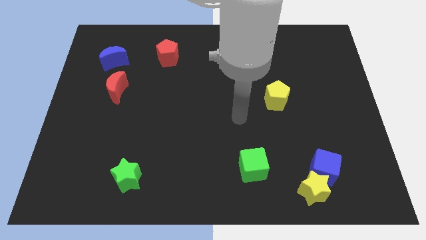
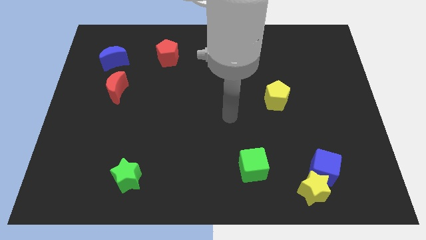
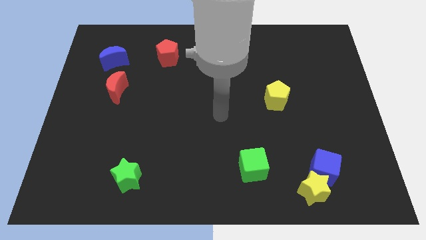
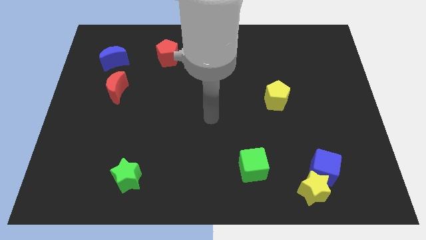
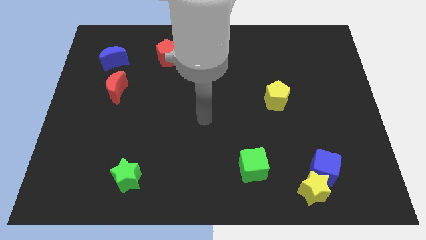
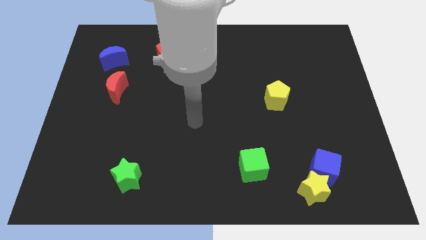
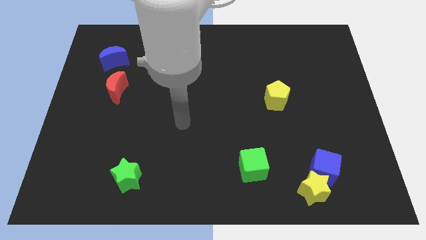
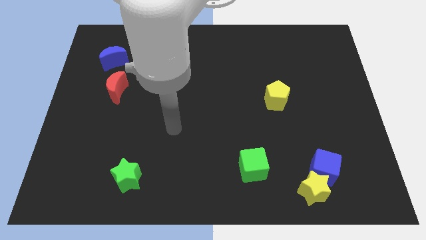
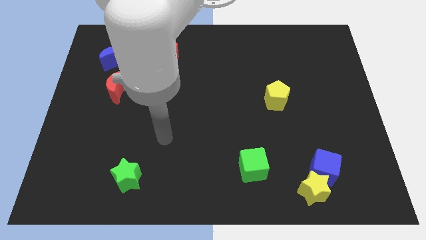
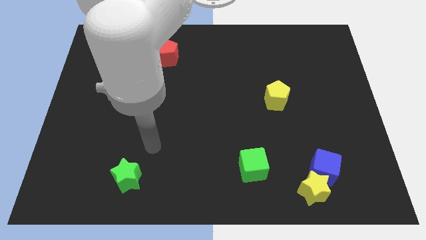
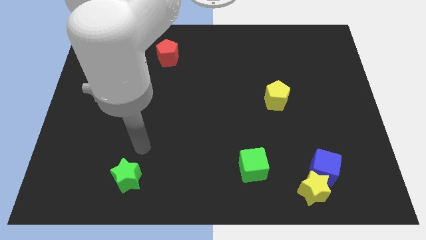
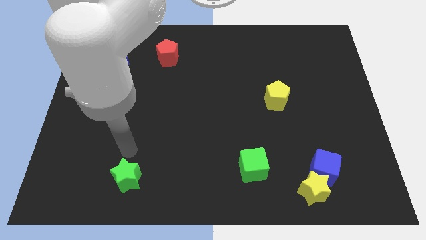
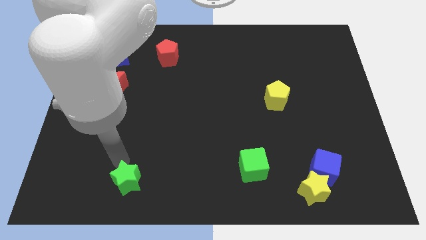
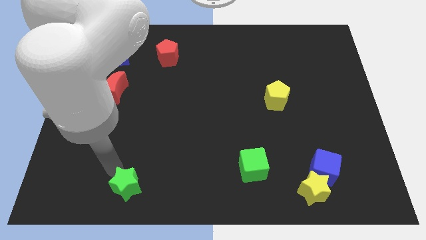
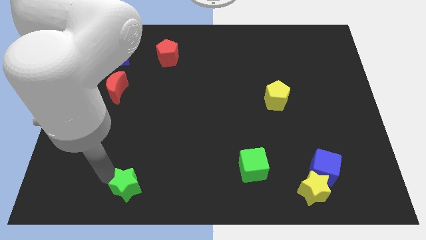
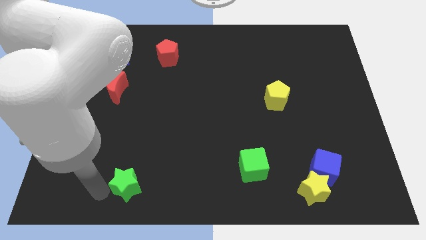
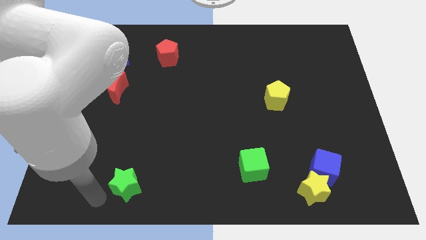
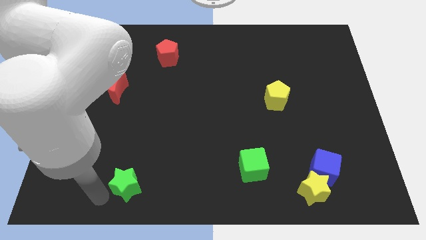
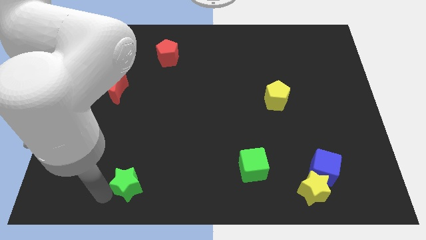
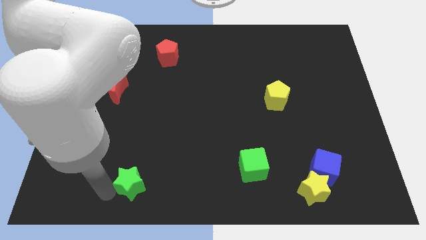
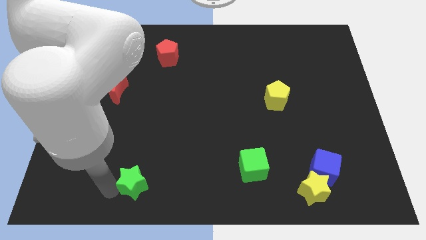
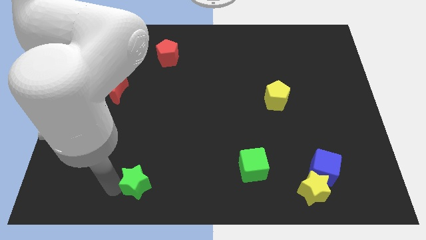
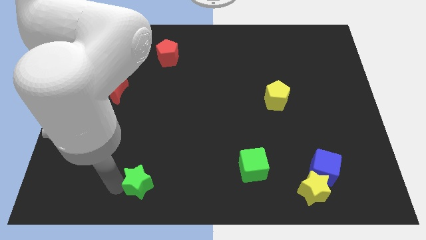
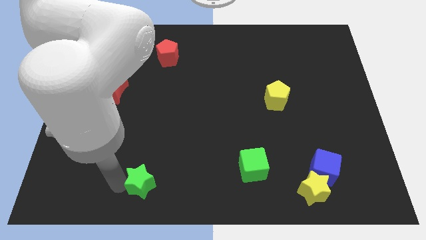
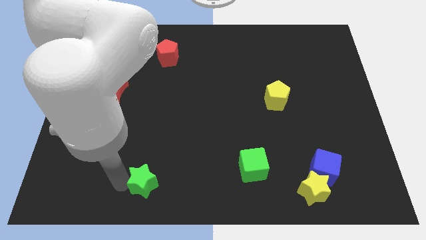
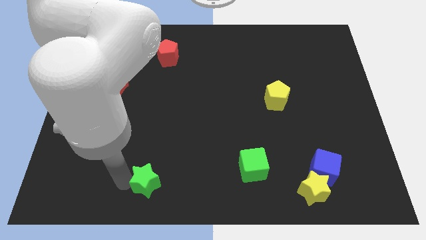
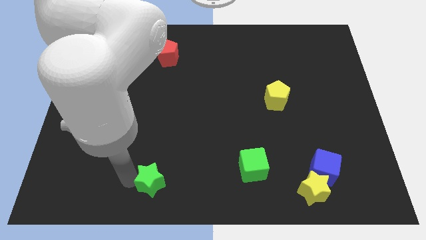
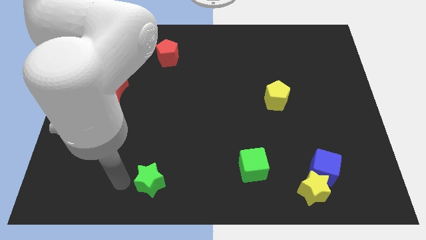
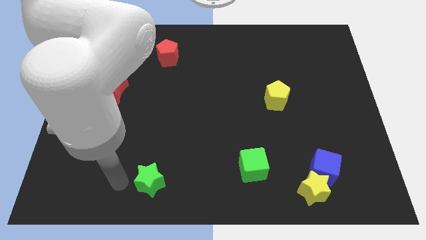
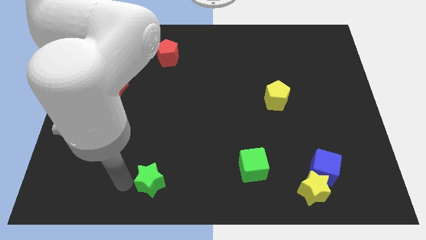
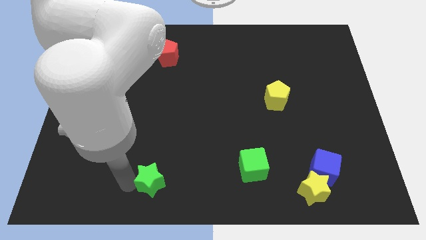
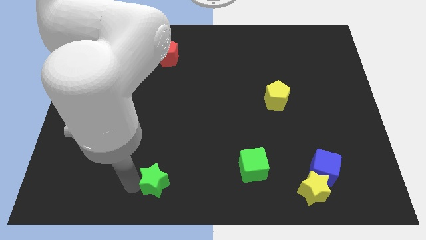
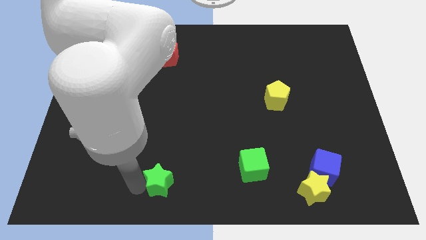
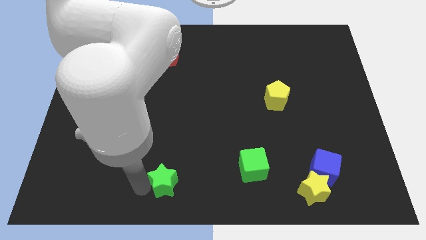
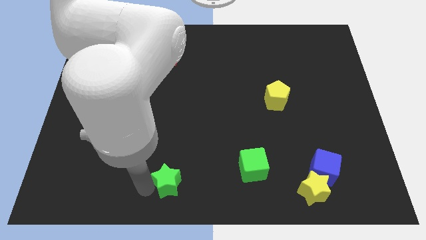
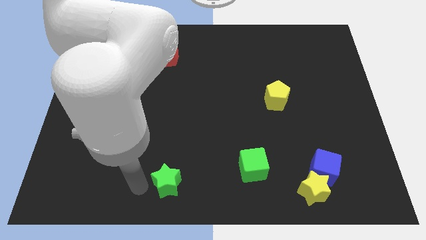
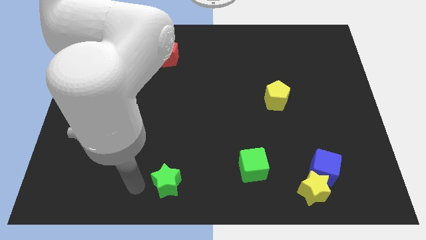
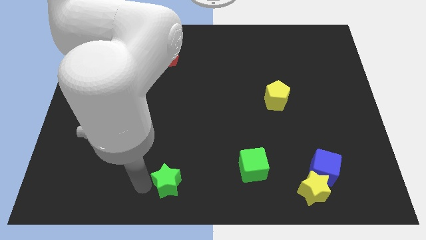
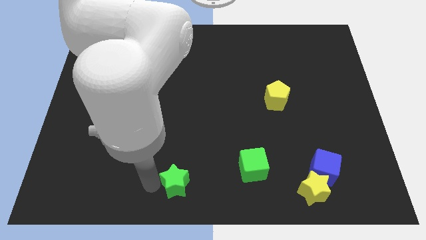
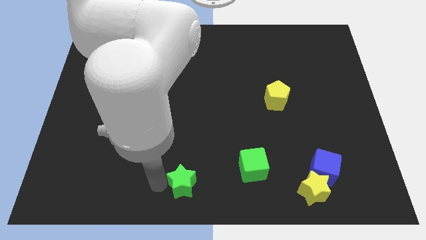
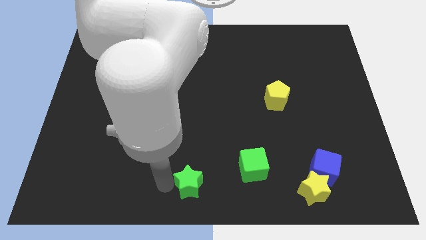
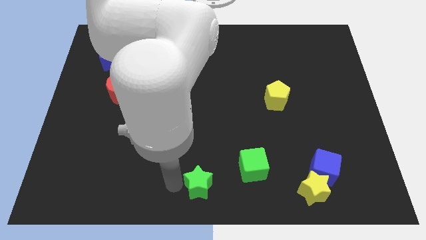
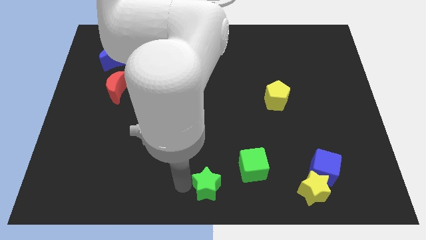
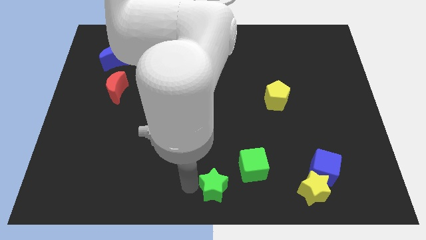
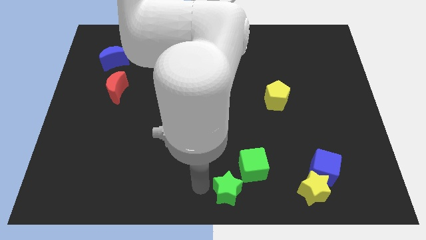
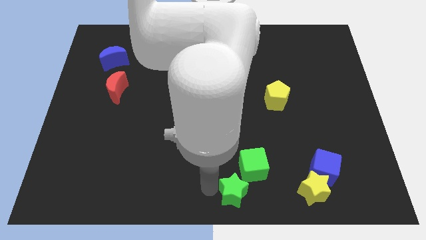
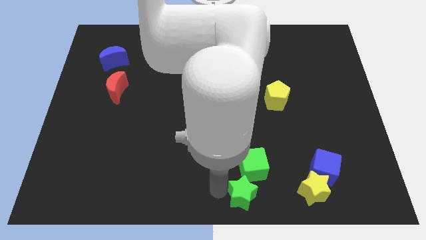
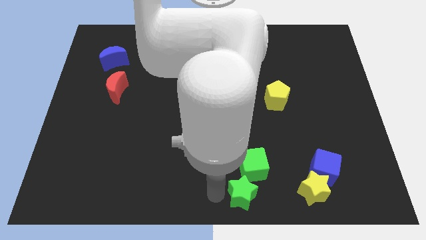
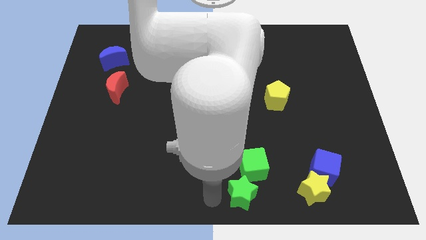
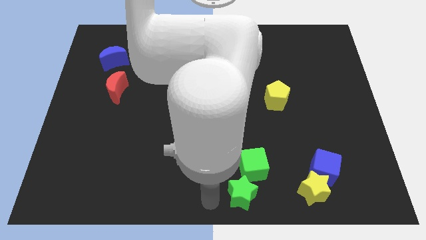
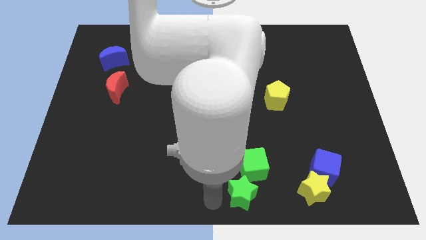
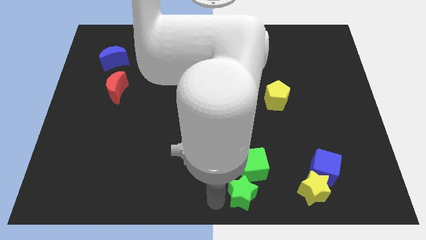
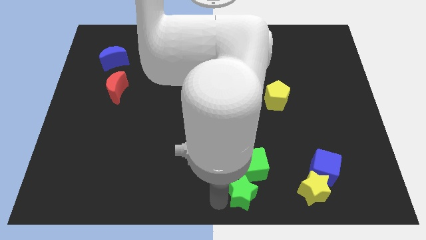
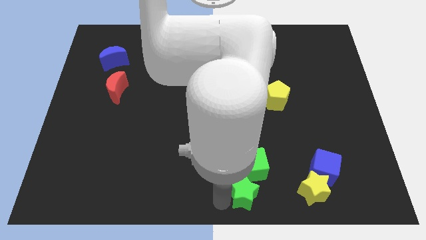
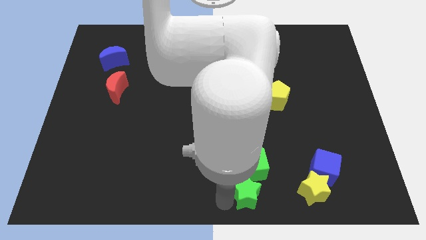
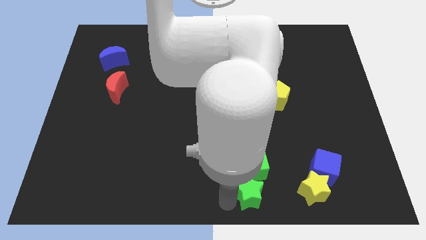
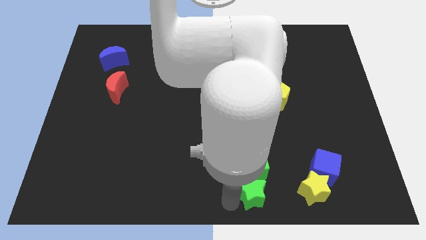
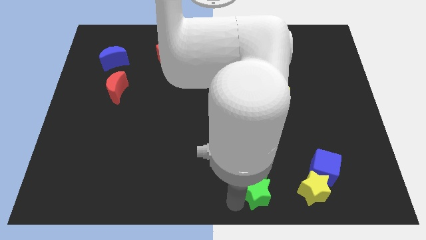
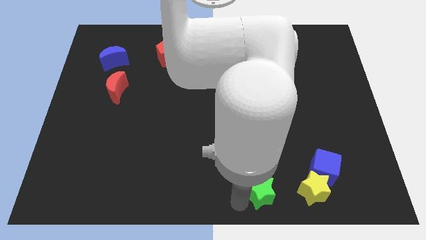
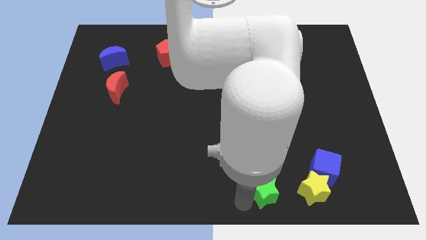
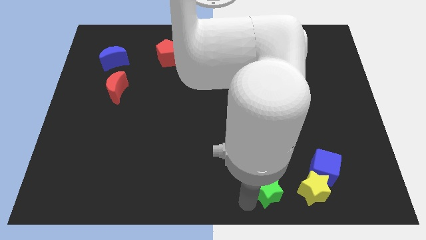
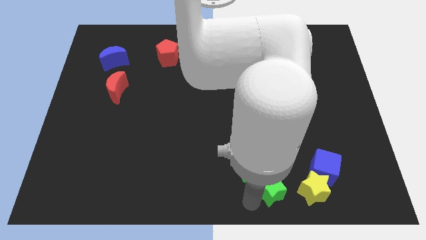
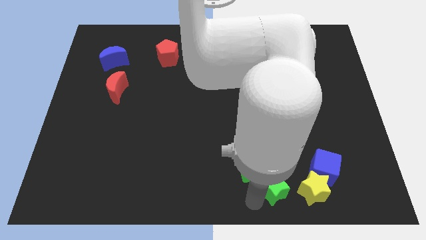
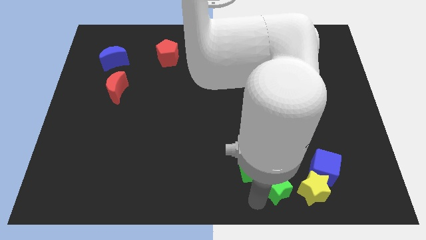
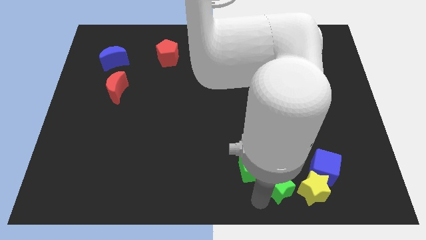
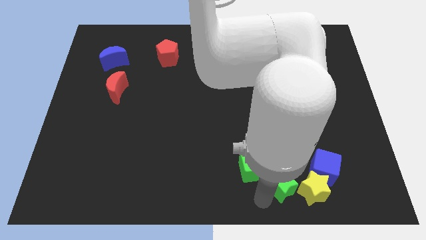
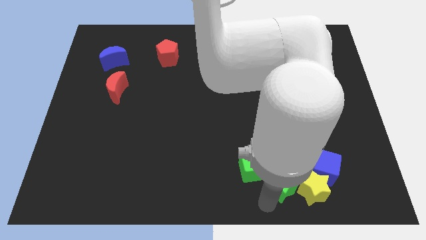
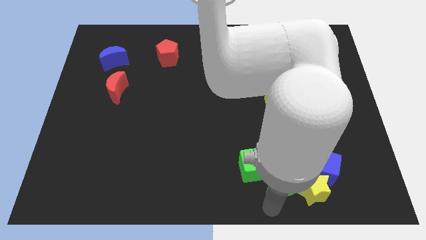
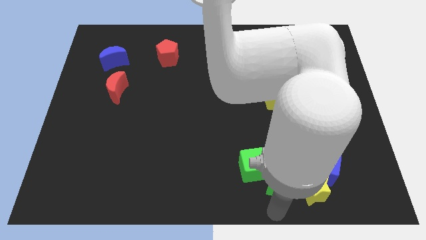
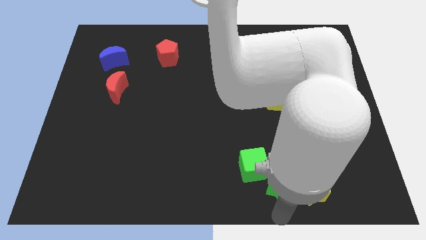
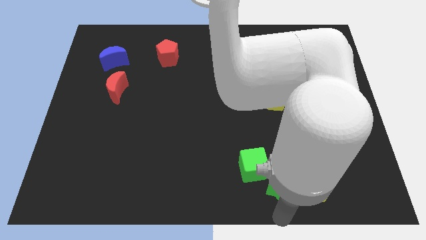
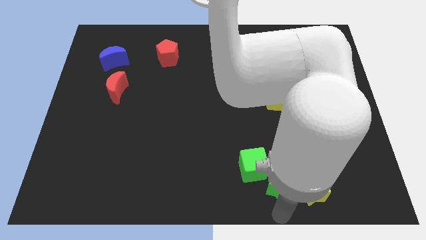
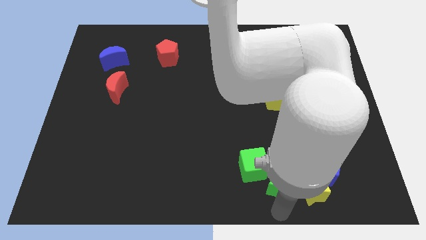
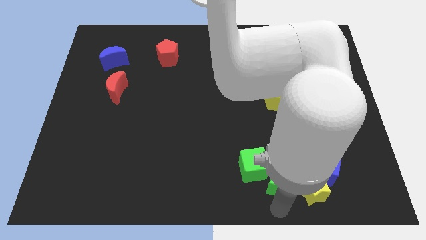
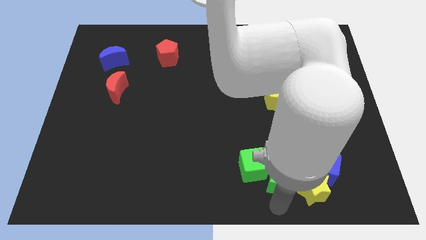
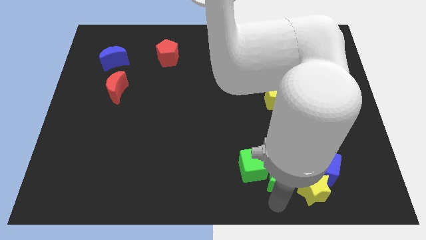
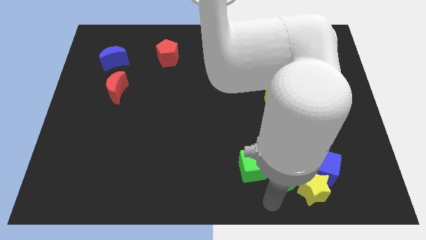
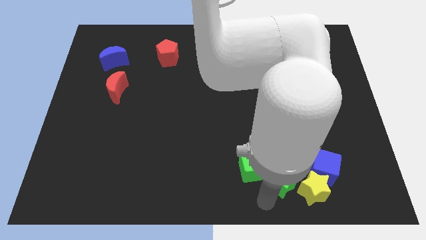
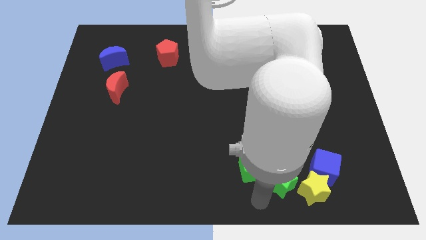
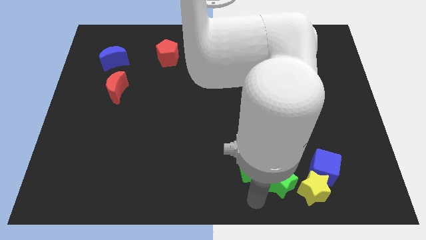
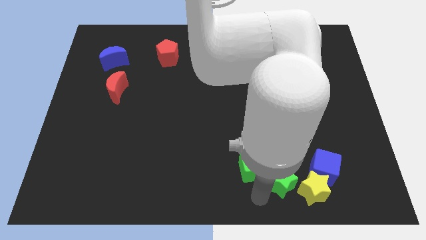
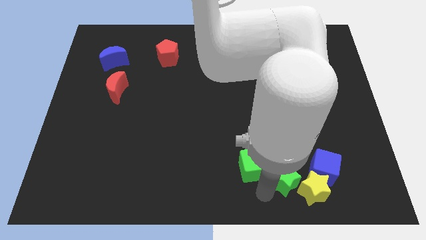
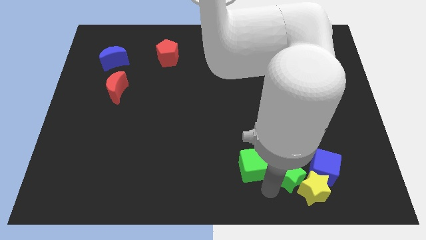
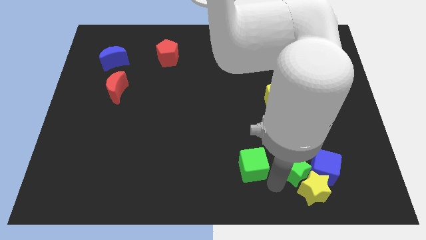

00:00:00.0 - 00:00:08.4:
move the green star towards the blue cube
